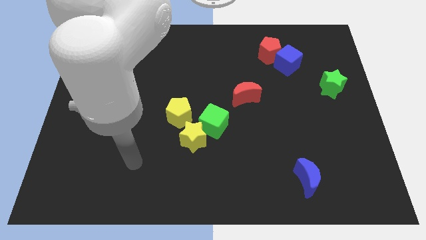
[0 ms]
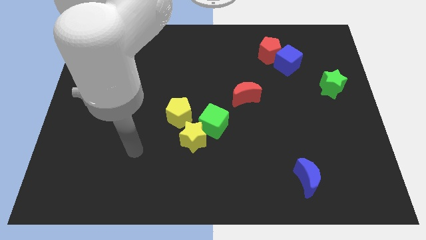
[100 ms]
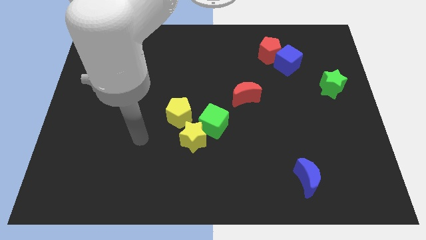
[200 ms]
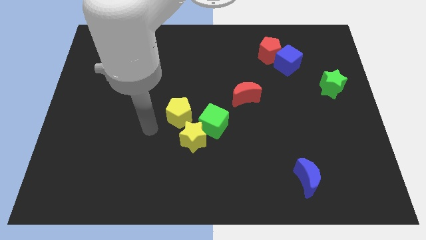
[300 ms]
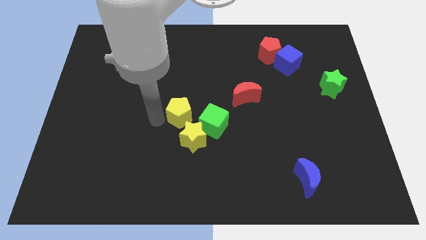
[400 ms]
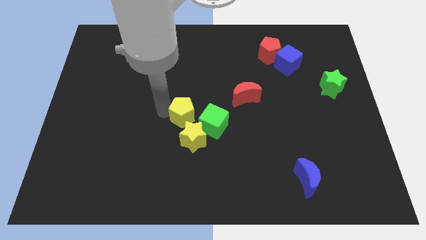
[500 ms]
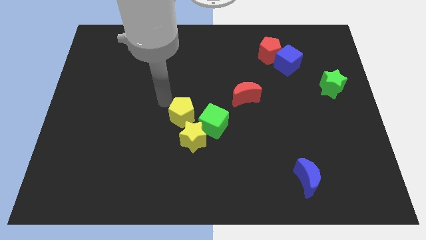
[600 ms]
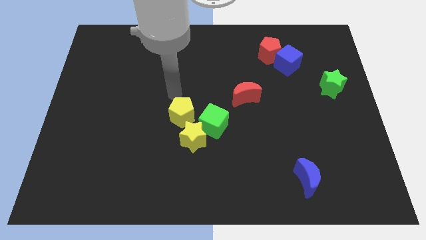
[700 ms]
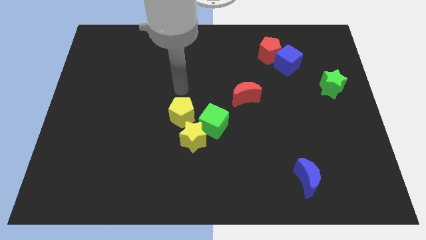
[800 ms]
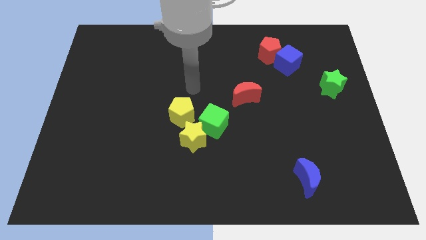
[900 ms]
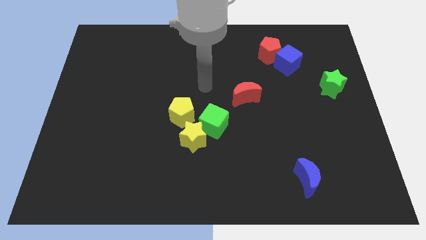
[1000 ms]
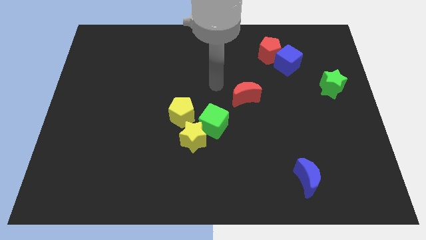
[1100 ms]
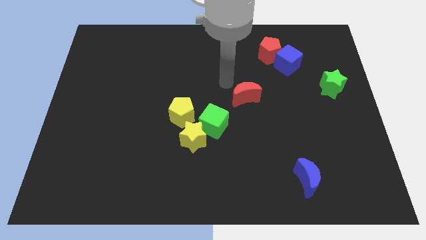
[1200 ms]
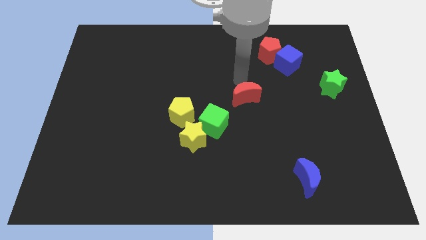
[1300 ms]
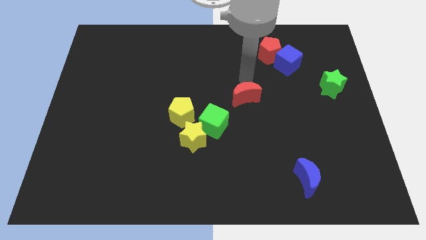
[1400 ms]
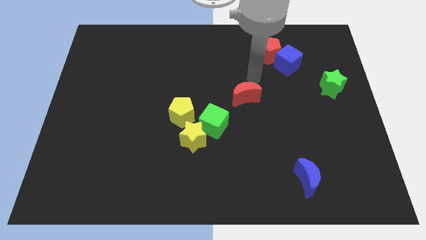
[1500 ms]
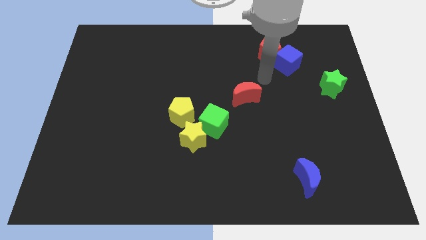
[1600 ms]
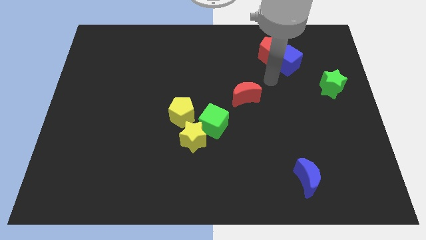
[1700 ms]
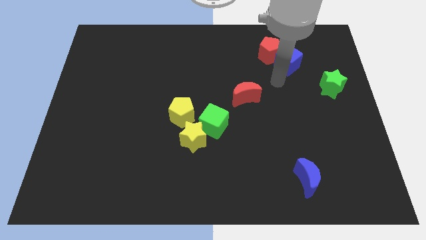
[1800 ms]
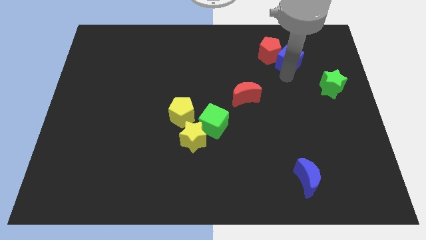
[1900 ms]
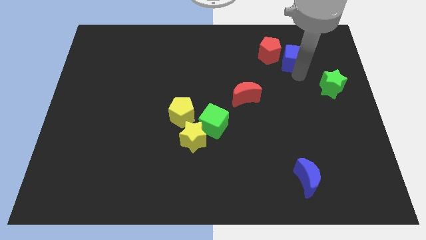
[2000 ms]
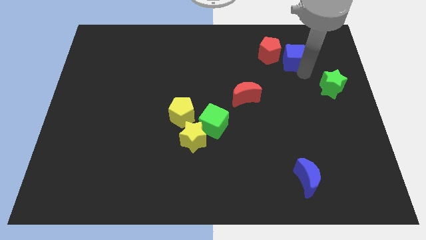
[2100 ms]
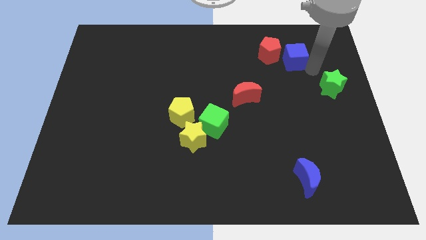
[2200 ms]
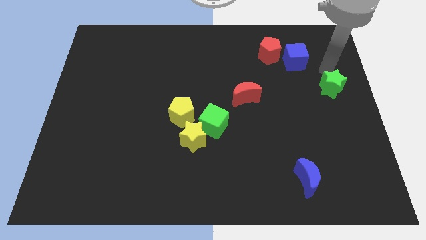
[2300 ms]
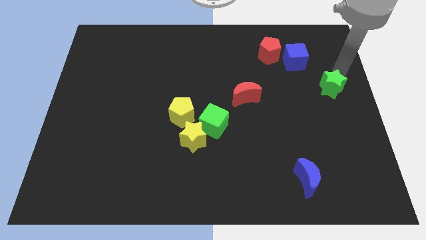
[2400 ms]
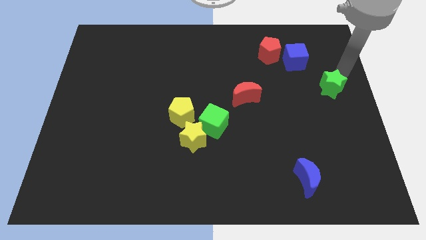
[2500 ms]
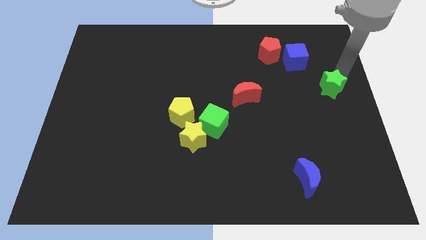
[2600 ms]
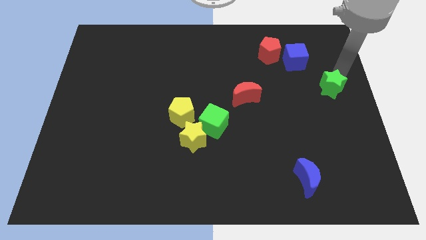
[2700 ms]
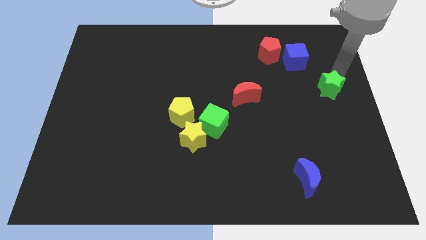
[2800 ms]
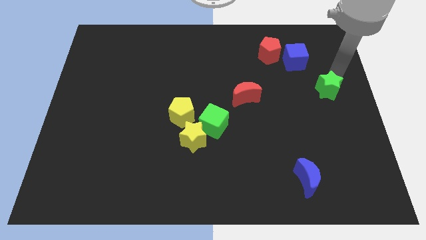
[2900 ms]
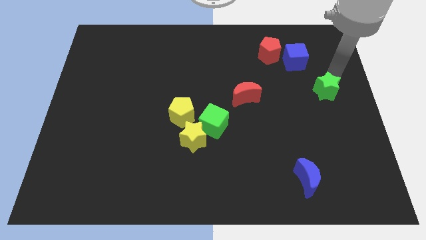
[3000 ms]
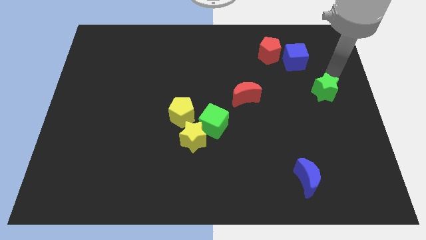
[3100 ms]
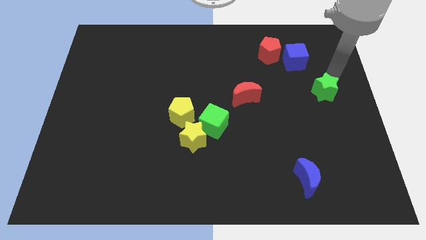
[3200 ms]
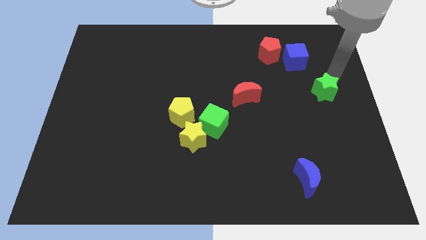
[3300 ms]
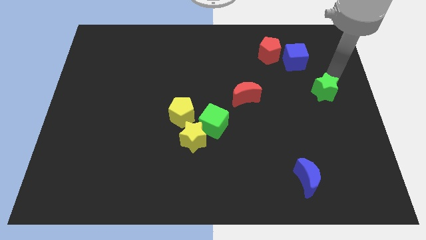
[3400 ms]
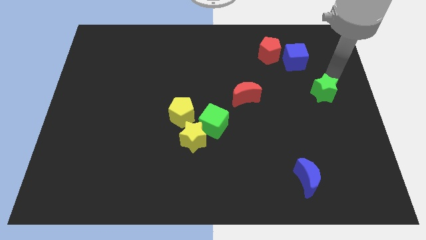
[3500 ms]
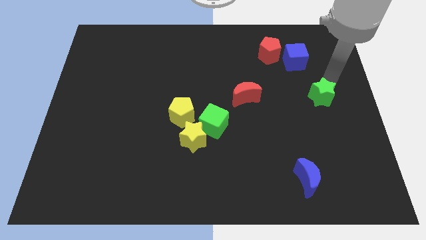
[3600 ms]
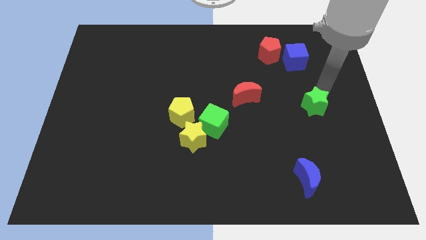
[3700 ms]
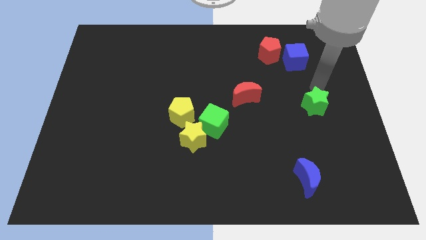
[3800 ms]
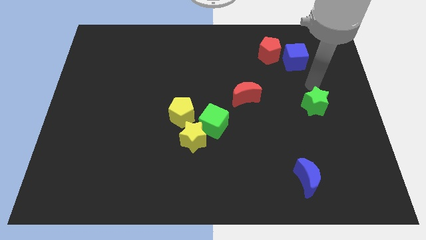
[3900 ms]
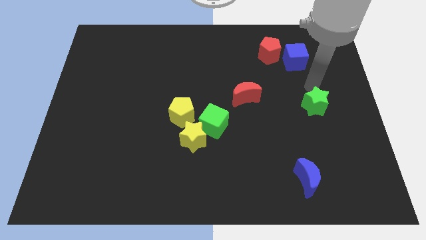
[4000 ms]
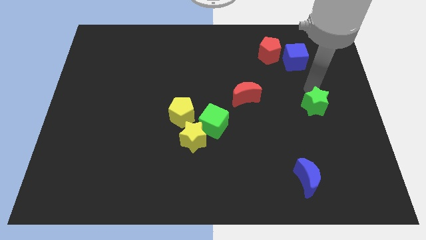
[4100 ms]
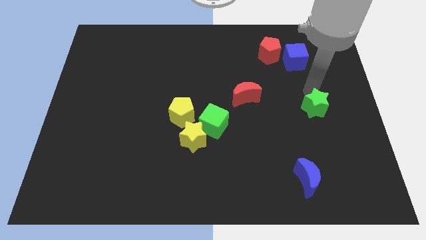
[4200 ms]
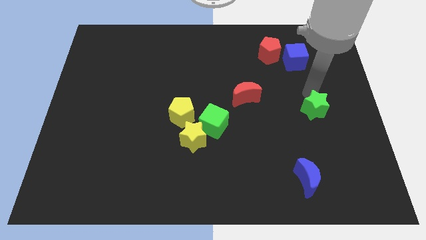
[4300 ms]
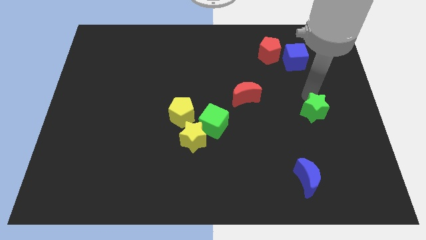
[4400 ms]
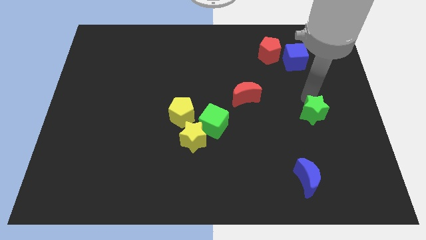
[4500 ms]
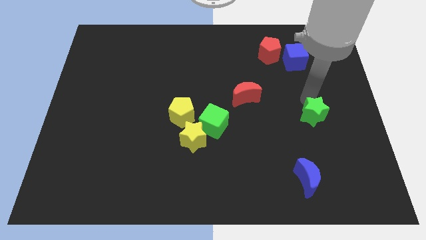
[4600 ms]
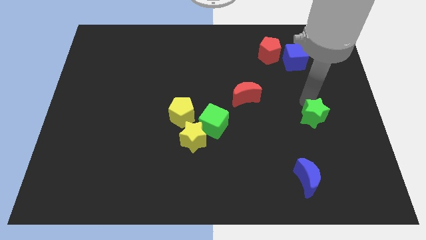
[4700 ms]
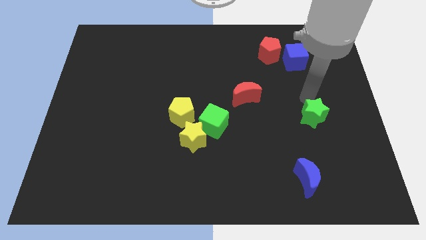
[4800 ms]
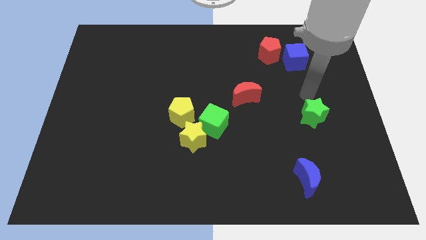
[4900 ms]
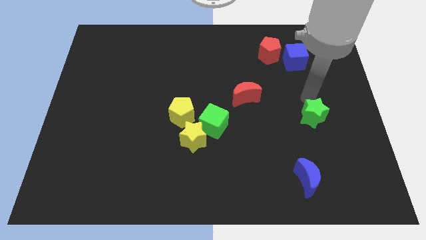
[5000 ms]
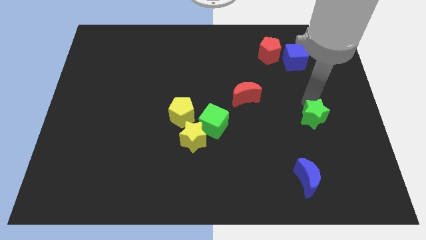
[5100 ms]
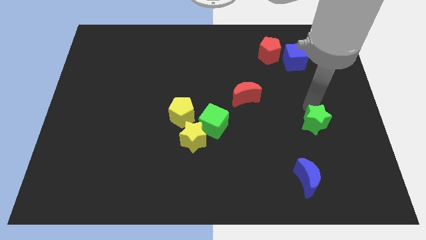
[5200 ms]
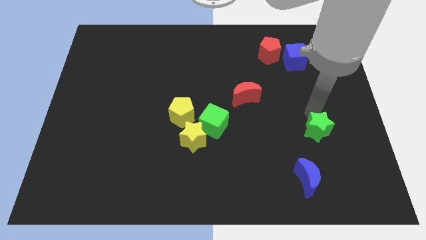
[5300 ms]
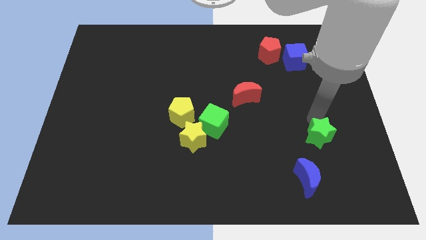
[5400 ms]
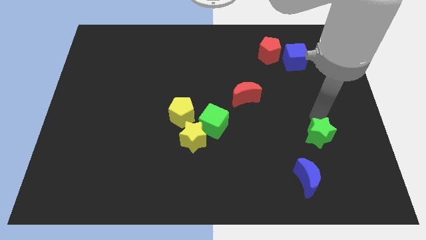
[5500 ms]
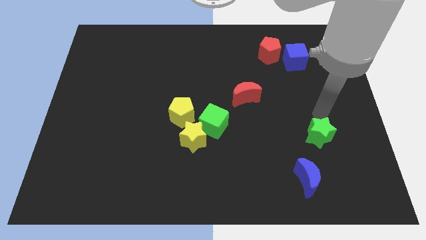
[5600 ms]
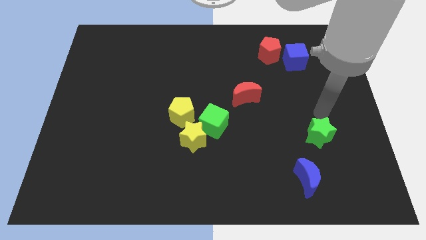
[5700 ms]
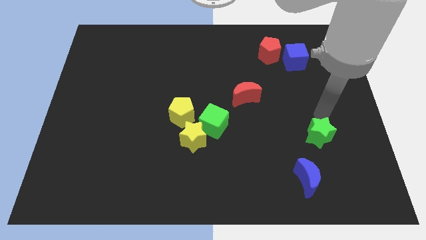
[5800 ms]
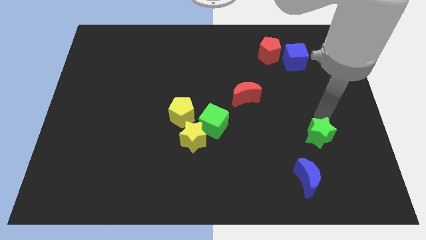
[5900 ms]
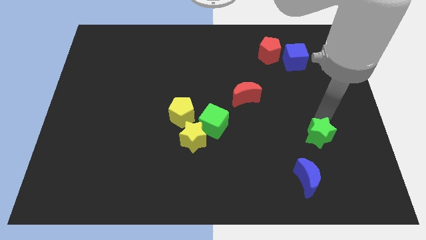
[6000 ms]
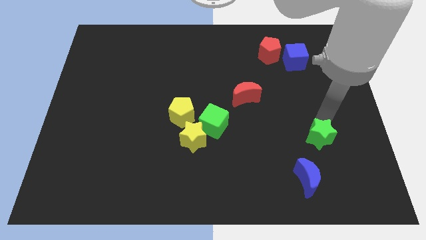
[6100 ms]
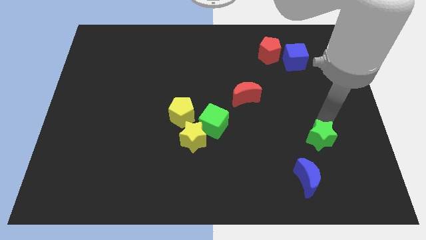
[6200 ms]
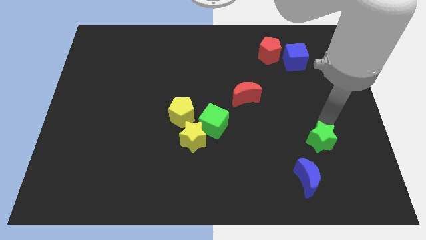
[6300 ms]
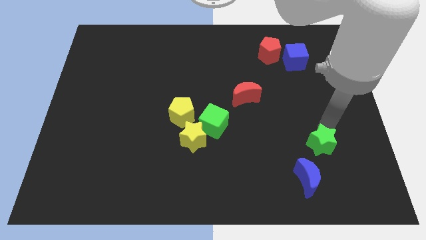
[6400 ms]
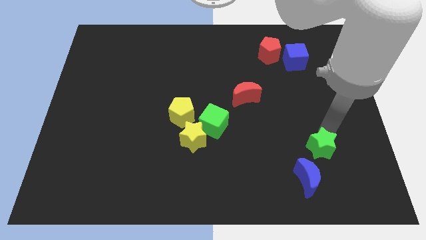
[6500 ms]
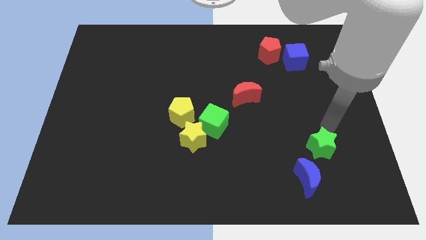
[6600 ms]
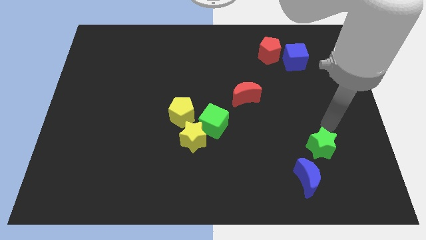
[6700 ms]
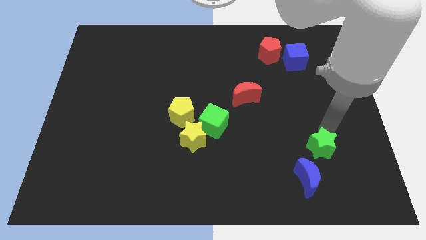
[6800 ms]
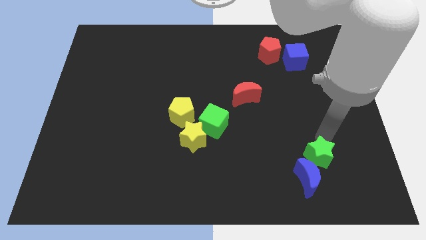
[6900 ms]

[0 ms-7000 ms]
put the green star close to the blue moon

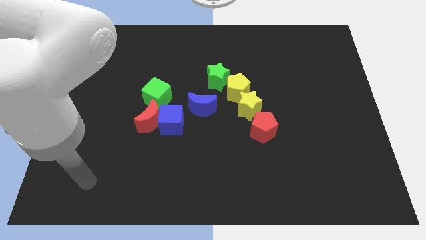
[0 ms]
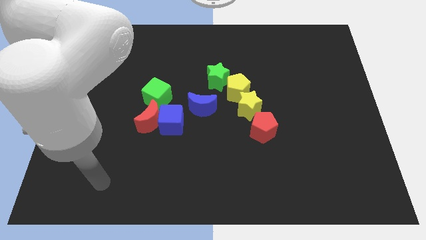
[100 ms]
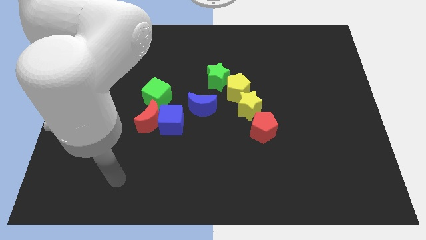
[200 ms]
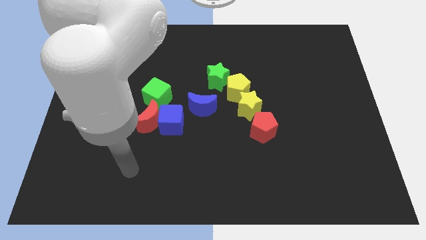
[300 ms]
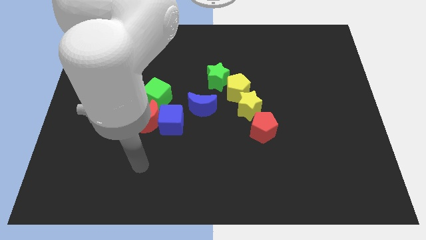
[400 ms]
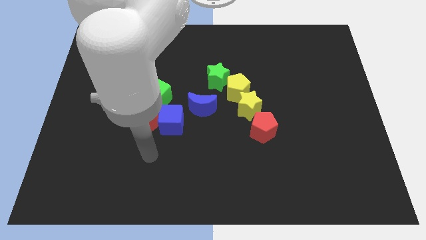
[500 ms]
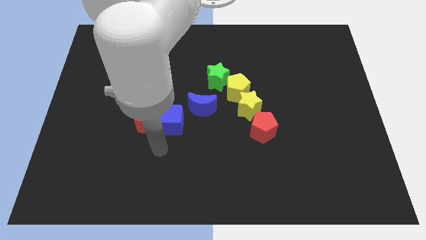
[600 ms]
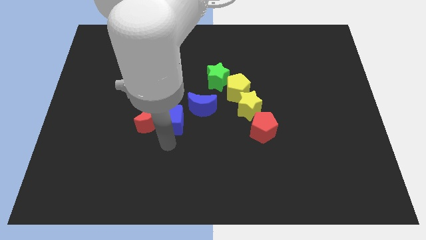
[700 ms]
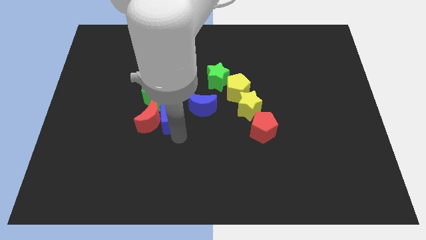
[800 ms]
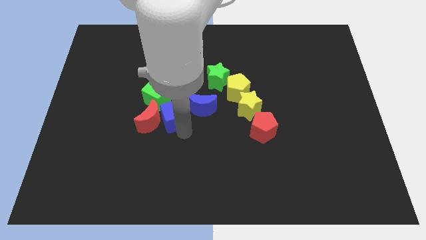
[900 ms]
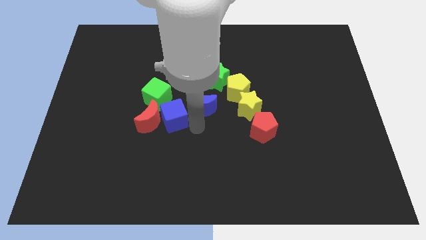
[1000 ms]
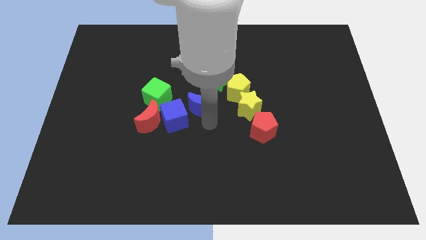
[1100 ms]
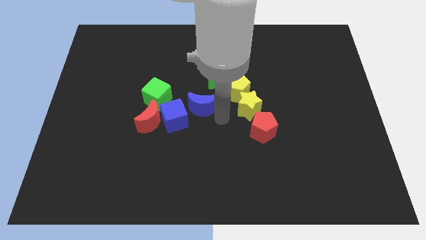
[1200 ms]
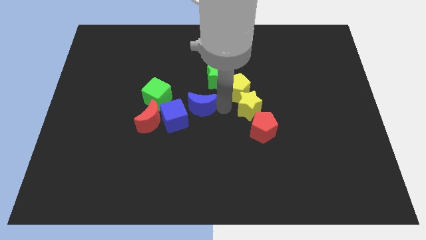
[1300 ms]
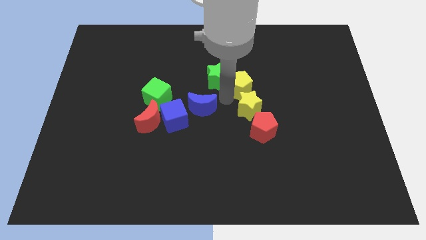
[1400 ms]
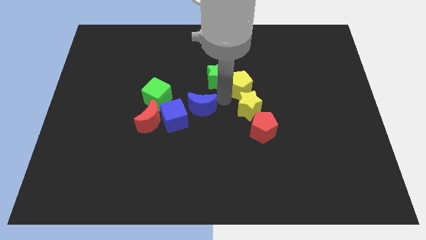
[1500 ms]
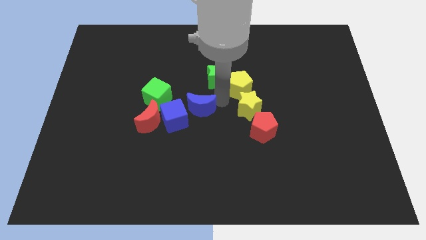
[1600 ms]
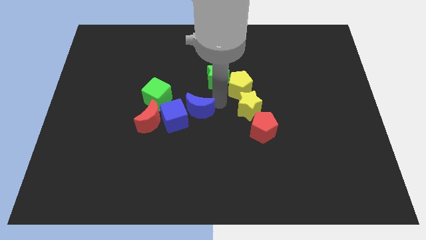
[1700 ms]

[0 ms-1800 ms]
slide the blue moon next to the blue cube
